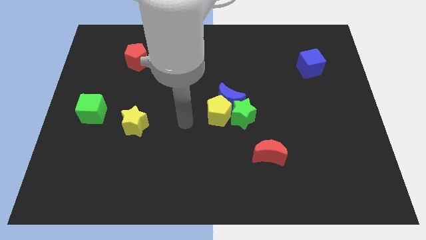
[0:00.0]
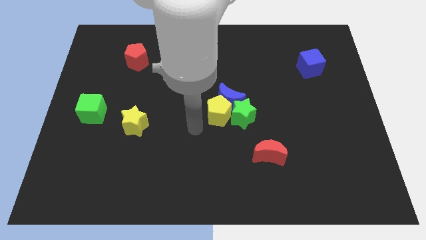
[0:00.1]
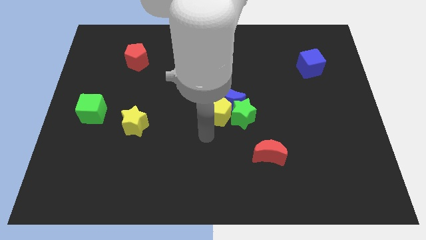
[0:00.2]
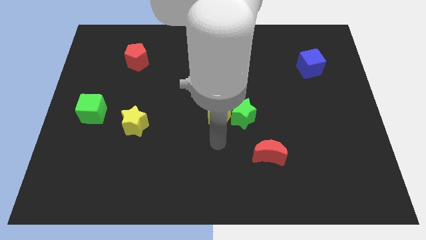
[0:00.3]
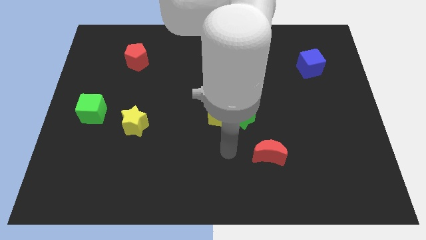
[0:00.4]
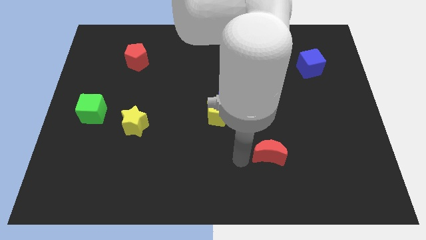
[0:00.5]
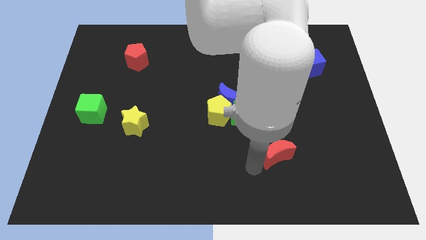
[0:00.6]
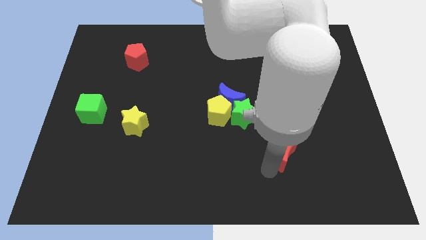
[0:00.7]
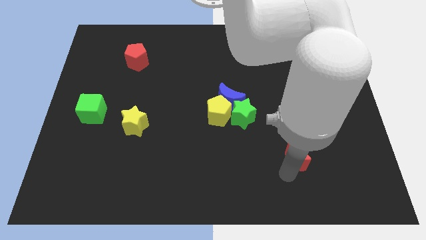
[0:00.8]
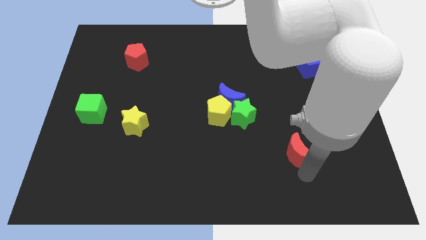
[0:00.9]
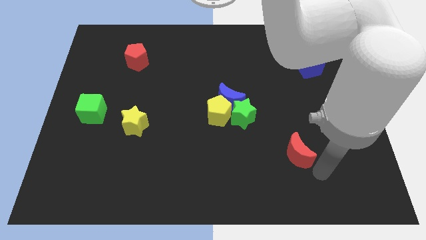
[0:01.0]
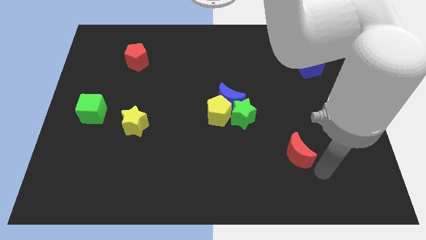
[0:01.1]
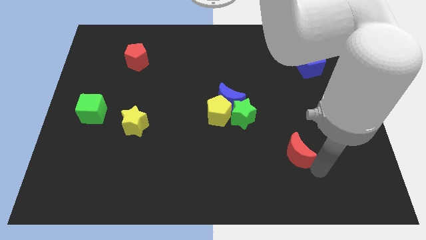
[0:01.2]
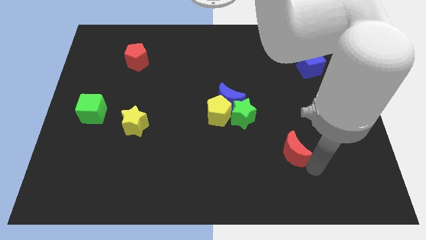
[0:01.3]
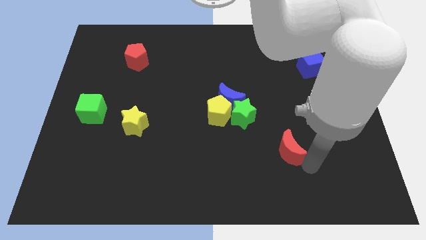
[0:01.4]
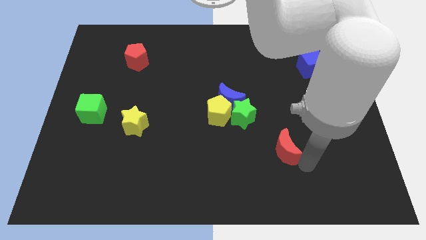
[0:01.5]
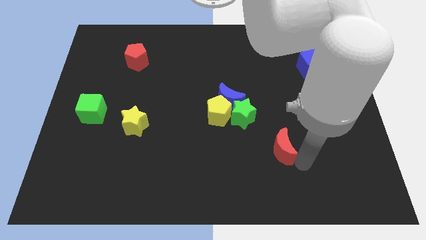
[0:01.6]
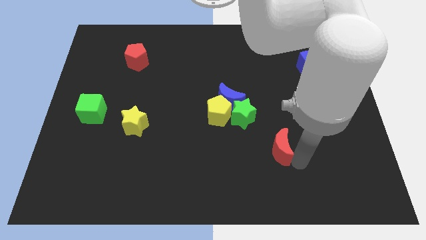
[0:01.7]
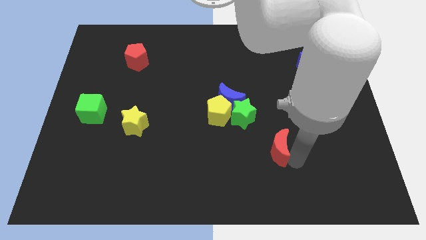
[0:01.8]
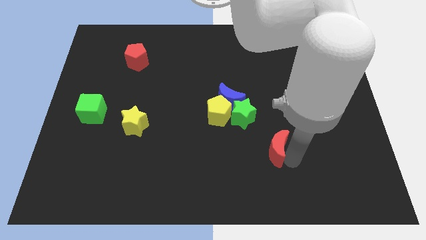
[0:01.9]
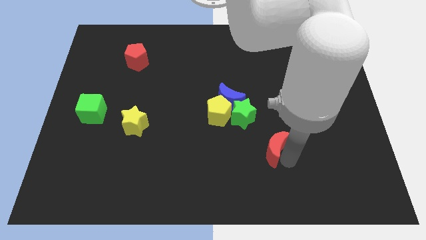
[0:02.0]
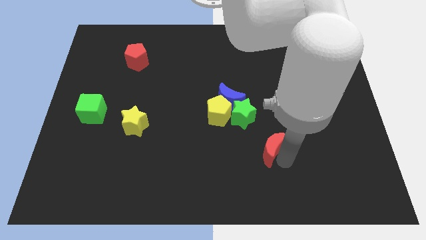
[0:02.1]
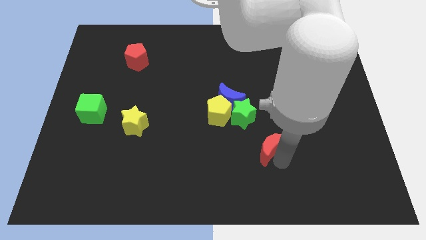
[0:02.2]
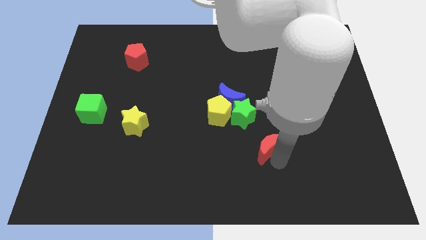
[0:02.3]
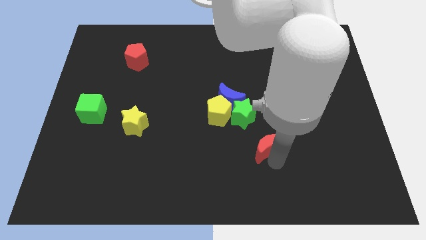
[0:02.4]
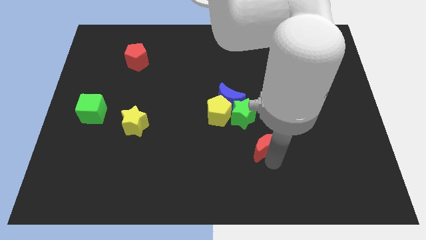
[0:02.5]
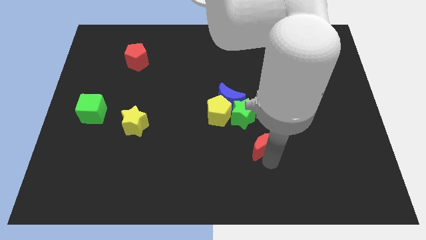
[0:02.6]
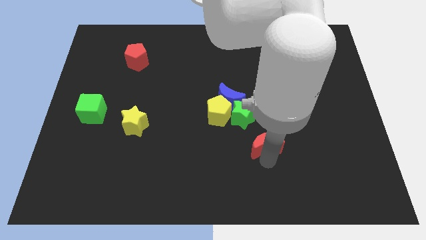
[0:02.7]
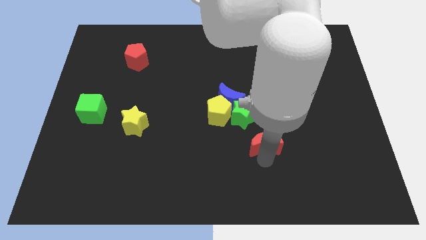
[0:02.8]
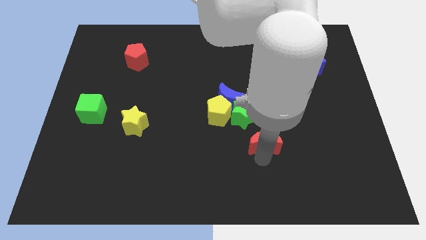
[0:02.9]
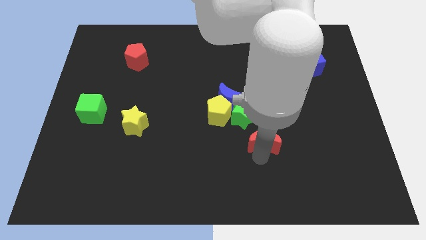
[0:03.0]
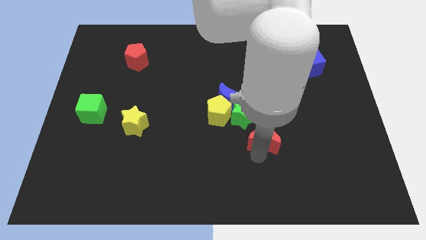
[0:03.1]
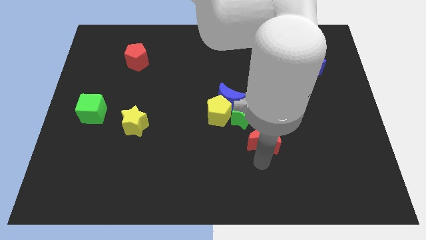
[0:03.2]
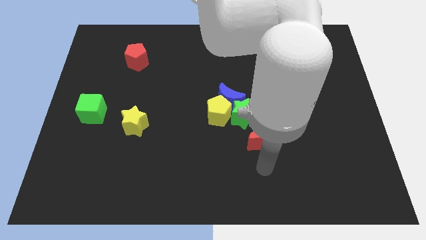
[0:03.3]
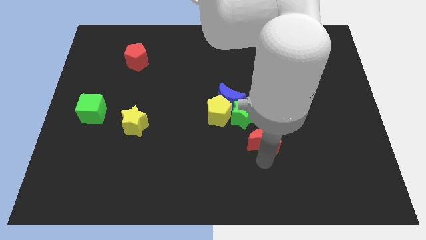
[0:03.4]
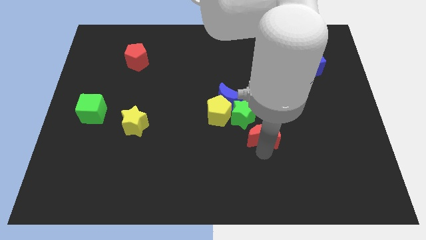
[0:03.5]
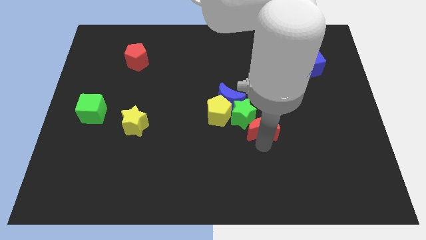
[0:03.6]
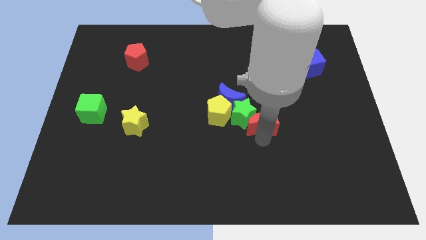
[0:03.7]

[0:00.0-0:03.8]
slightly slide the red moon up

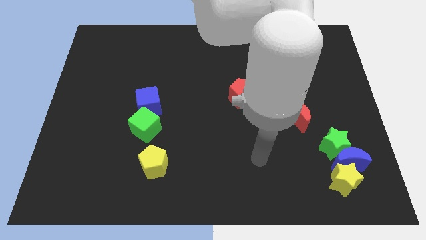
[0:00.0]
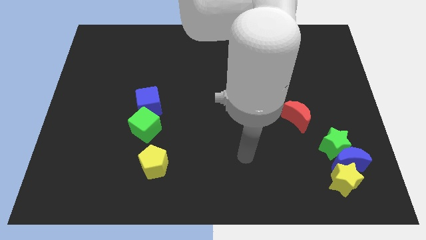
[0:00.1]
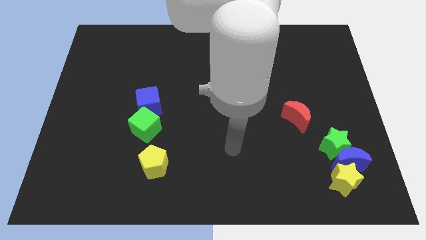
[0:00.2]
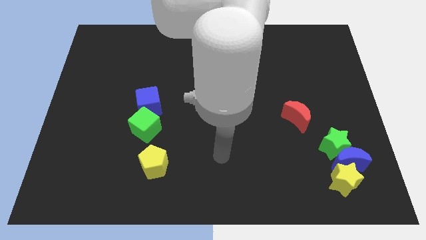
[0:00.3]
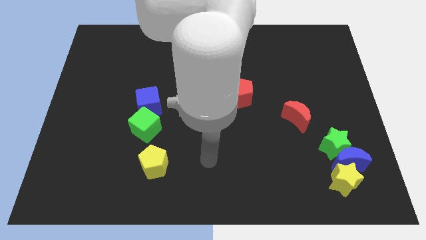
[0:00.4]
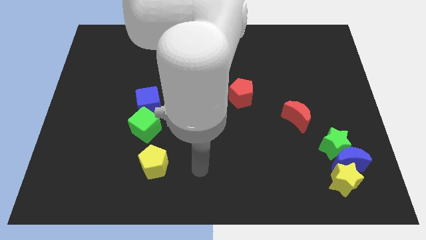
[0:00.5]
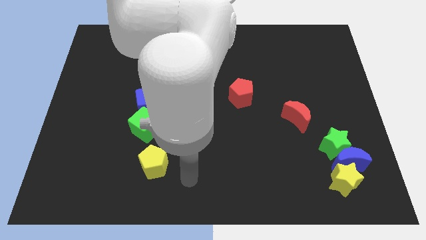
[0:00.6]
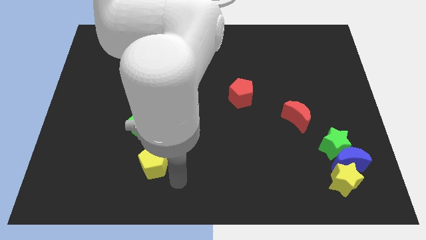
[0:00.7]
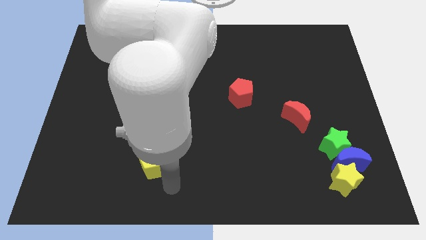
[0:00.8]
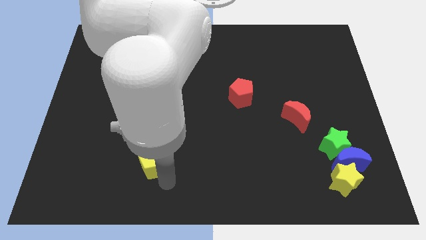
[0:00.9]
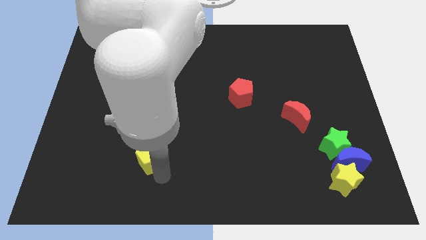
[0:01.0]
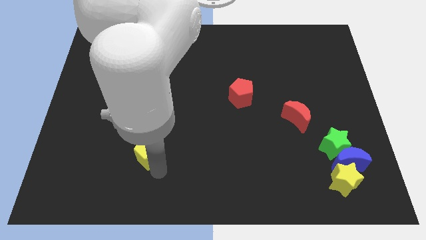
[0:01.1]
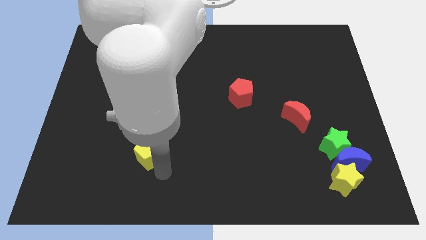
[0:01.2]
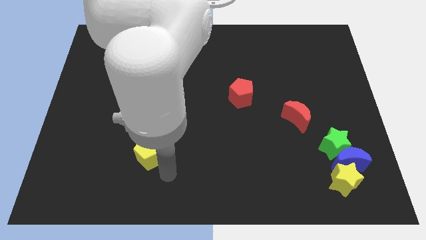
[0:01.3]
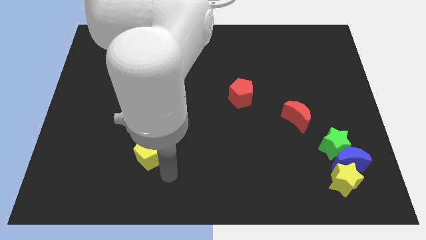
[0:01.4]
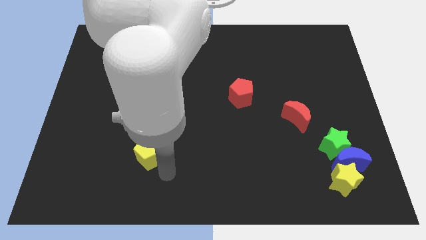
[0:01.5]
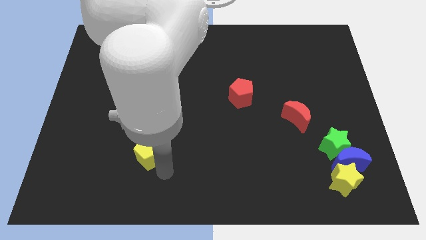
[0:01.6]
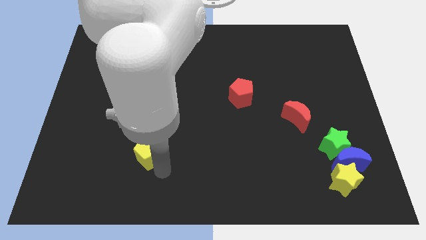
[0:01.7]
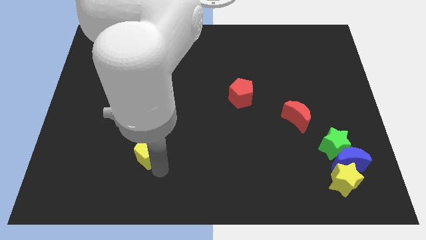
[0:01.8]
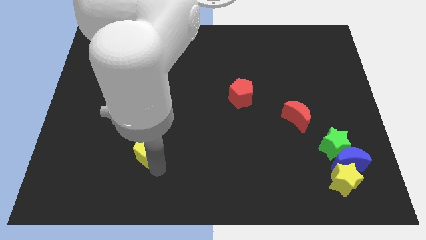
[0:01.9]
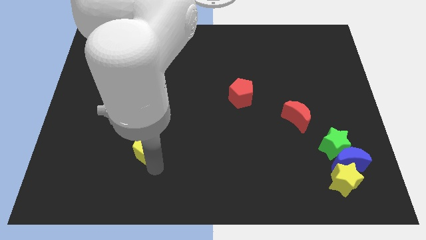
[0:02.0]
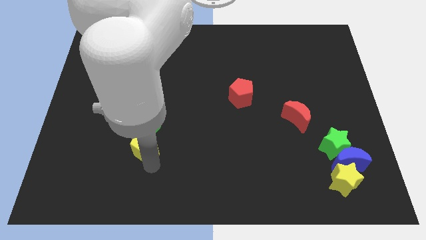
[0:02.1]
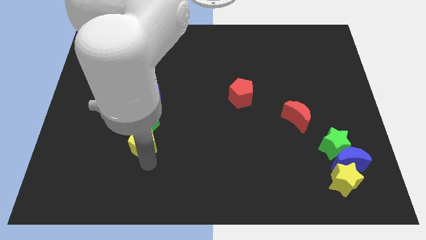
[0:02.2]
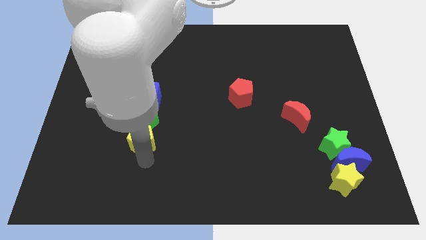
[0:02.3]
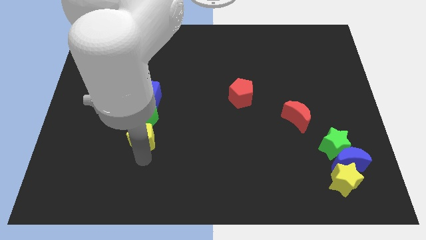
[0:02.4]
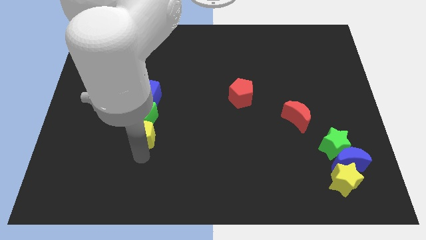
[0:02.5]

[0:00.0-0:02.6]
slide the yellow pentagon slightly diagonally upwards and left

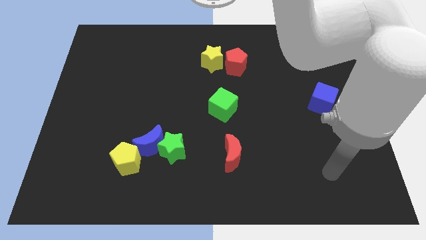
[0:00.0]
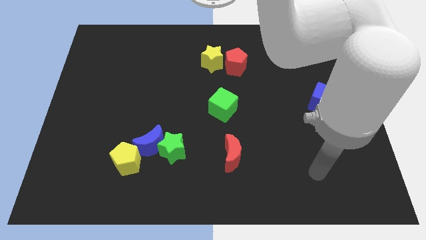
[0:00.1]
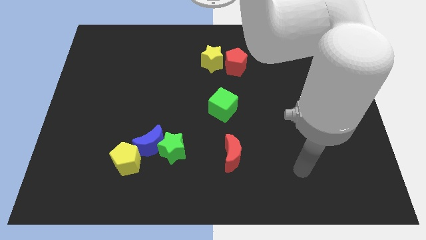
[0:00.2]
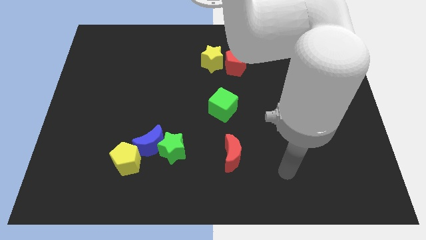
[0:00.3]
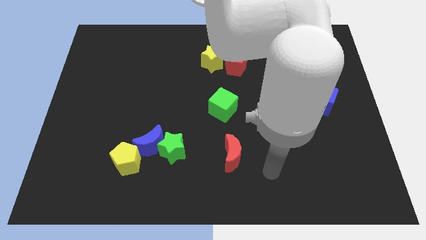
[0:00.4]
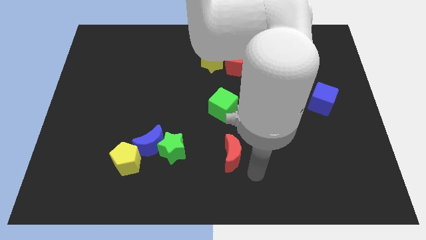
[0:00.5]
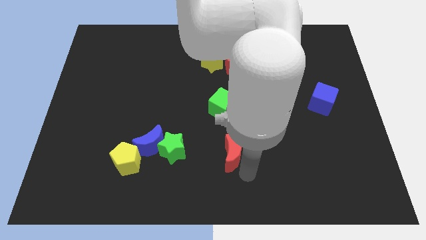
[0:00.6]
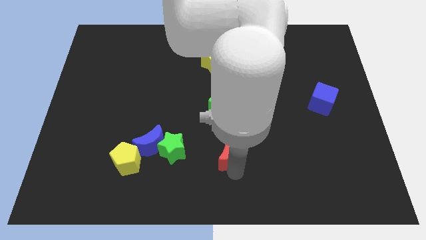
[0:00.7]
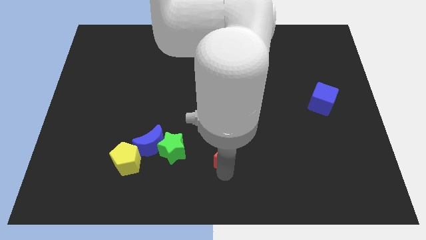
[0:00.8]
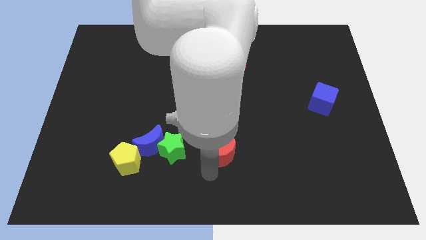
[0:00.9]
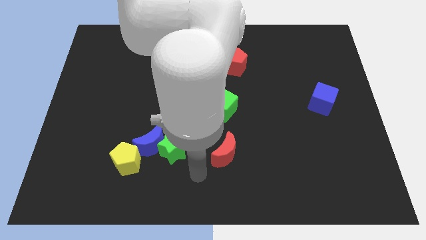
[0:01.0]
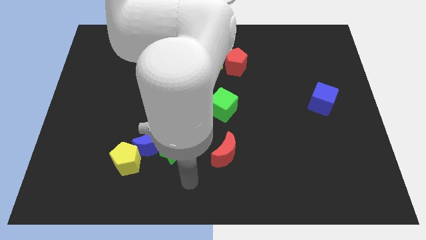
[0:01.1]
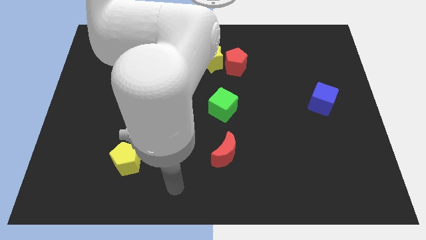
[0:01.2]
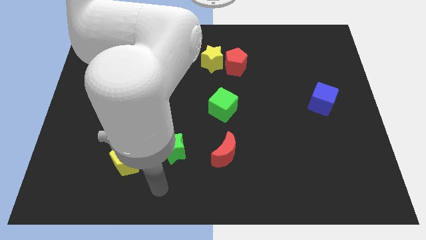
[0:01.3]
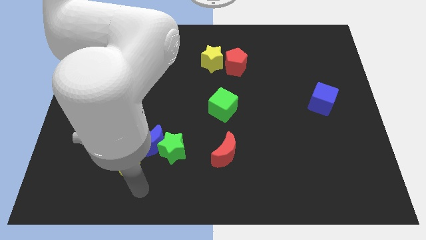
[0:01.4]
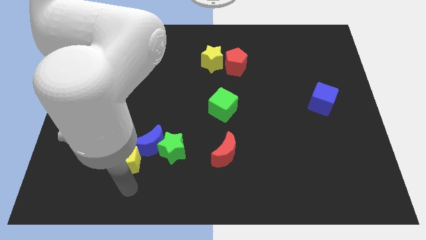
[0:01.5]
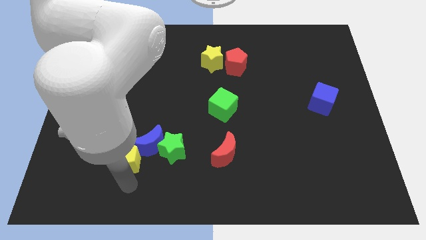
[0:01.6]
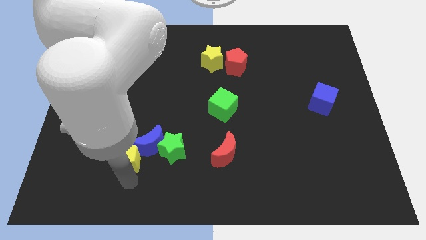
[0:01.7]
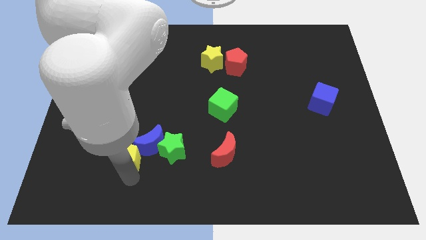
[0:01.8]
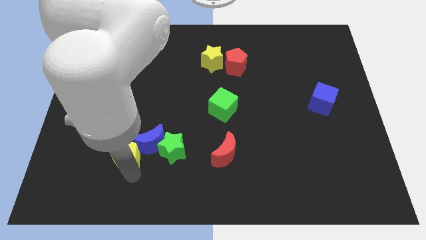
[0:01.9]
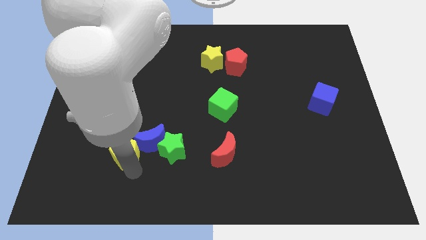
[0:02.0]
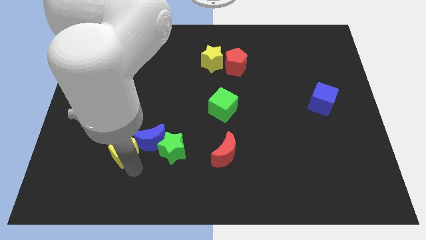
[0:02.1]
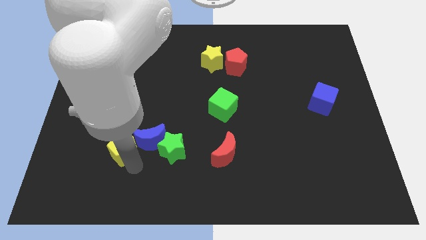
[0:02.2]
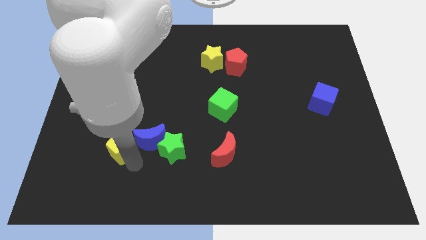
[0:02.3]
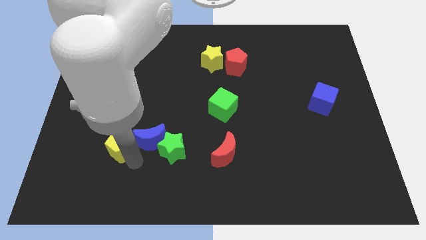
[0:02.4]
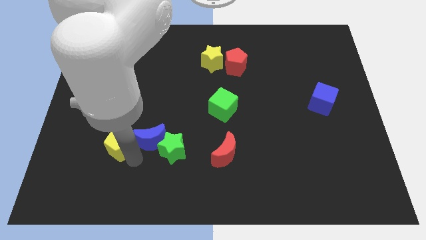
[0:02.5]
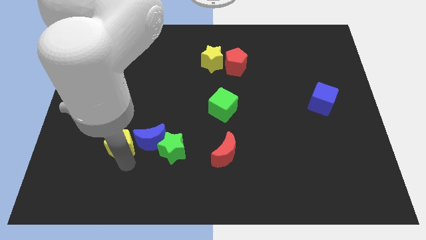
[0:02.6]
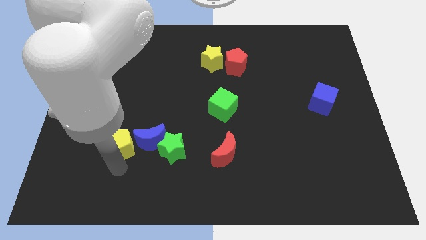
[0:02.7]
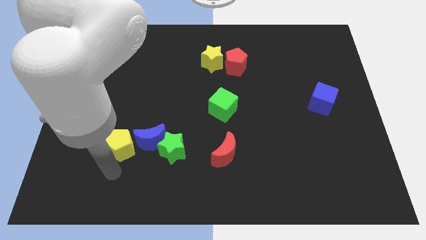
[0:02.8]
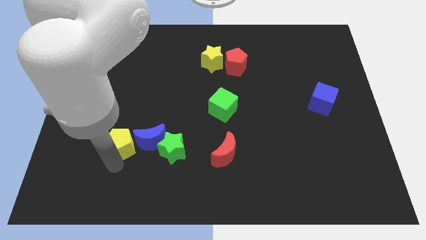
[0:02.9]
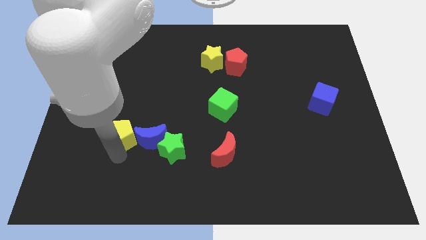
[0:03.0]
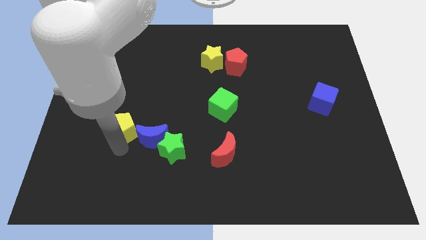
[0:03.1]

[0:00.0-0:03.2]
move the yellow pentagon somewhat upwards
